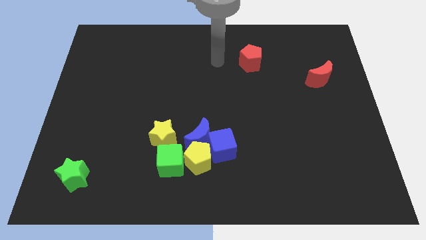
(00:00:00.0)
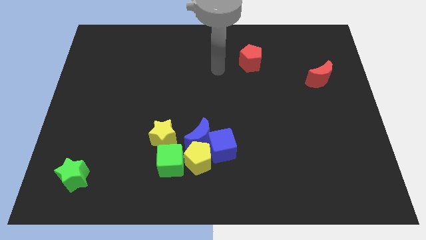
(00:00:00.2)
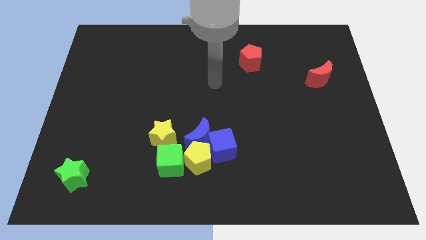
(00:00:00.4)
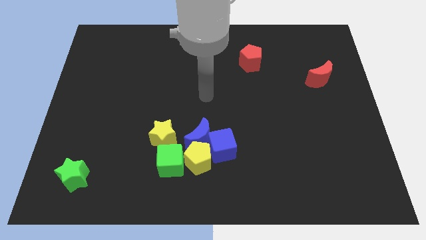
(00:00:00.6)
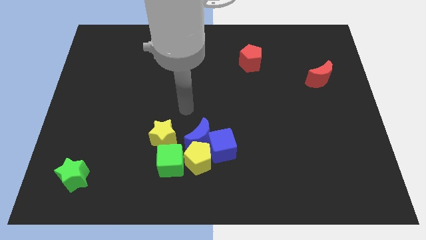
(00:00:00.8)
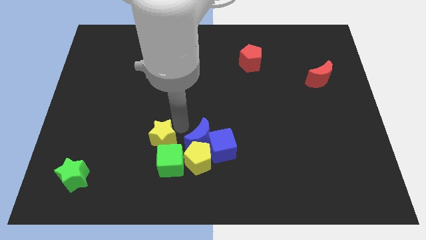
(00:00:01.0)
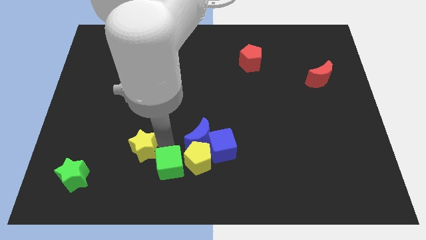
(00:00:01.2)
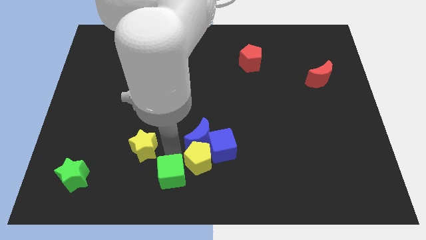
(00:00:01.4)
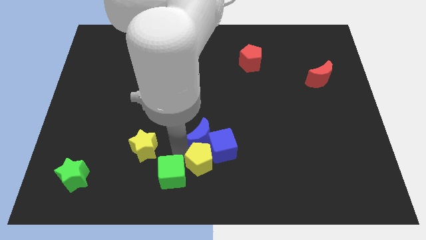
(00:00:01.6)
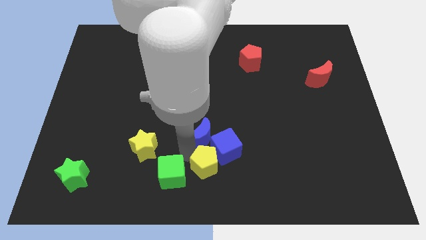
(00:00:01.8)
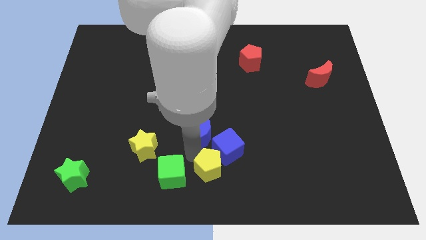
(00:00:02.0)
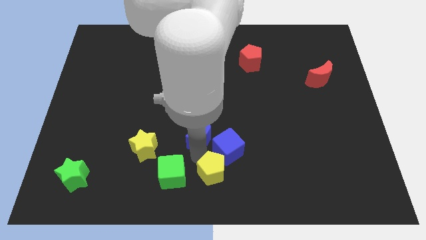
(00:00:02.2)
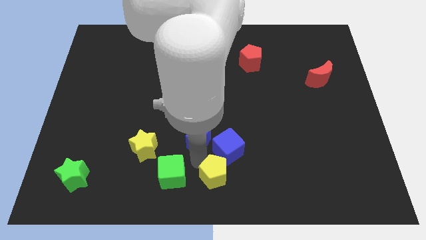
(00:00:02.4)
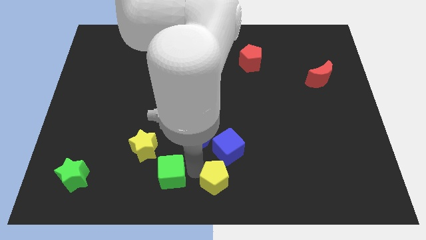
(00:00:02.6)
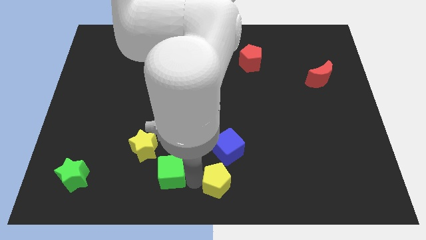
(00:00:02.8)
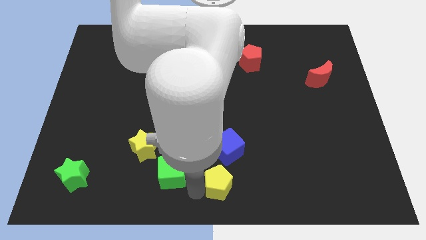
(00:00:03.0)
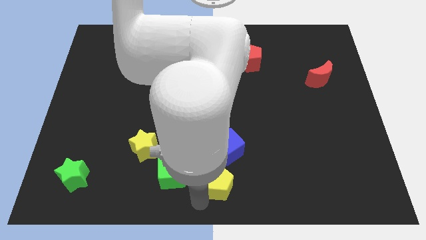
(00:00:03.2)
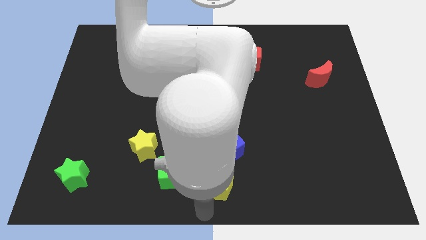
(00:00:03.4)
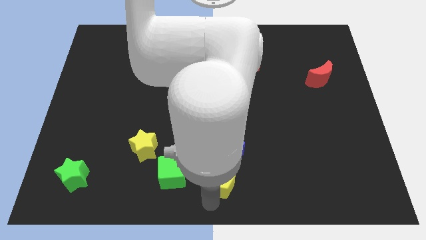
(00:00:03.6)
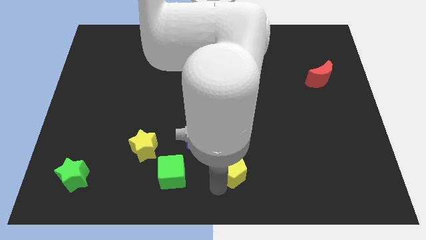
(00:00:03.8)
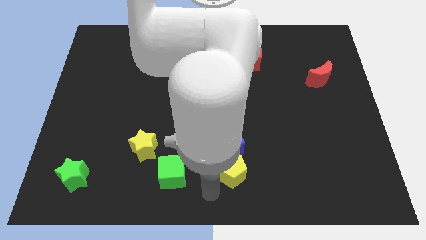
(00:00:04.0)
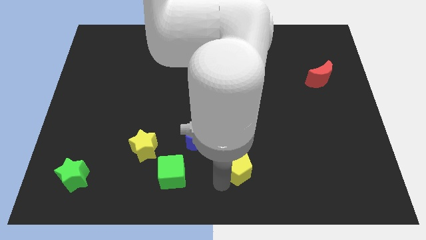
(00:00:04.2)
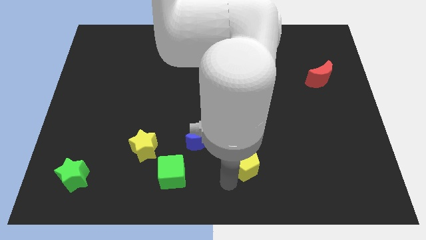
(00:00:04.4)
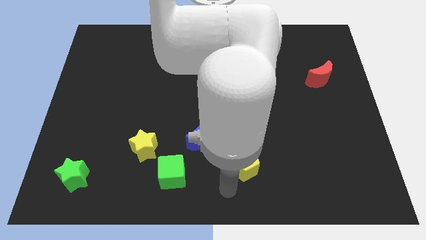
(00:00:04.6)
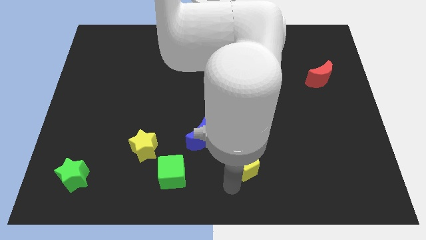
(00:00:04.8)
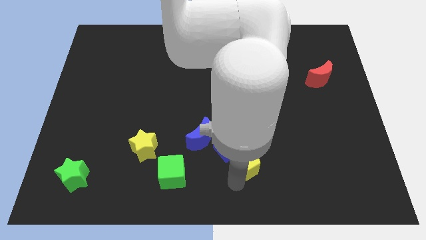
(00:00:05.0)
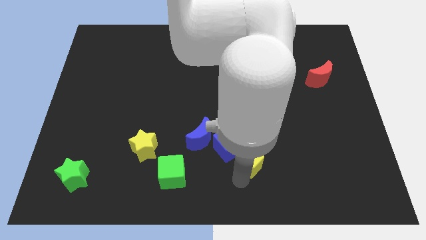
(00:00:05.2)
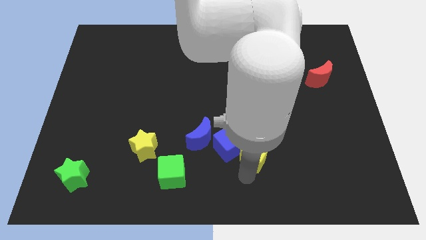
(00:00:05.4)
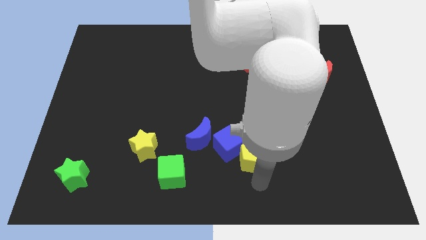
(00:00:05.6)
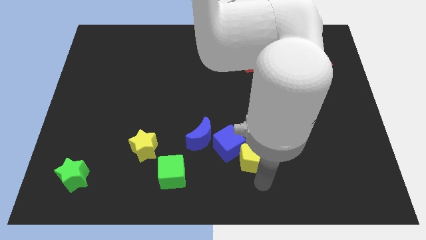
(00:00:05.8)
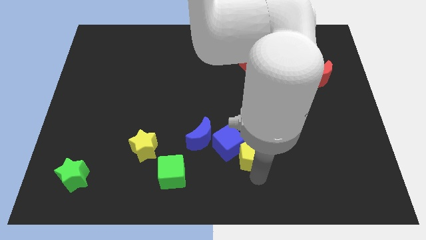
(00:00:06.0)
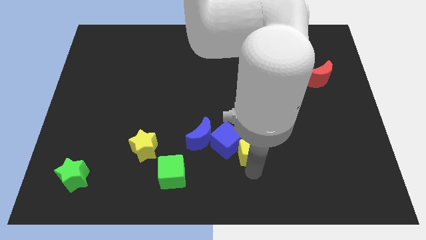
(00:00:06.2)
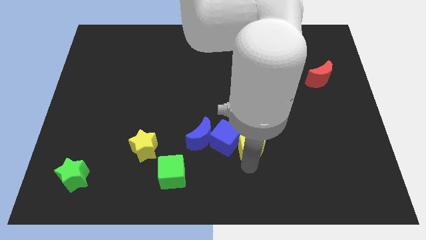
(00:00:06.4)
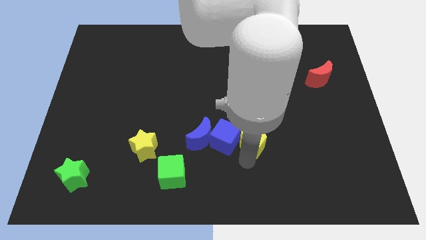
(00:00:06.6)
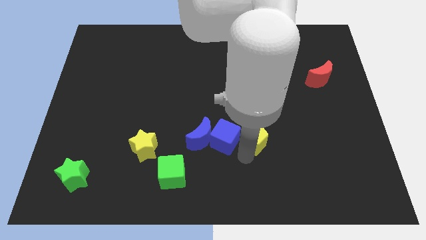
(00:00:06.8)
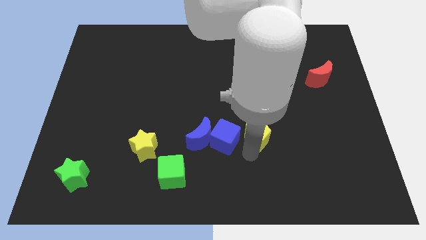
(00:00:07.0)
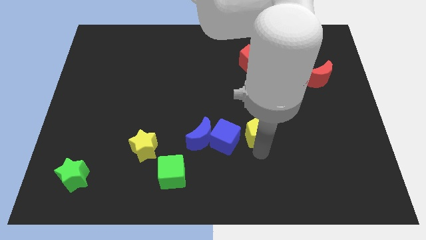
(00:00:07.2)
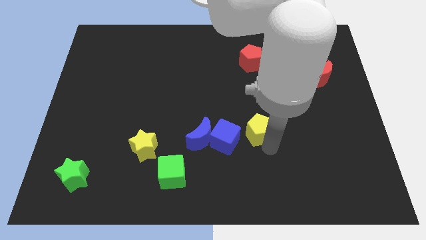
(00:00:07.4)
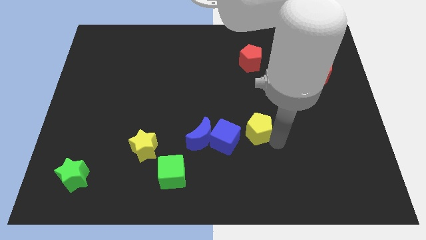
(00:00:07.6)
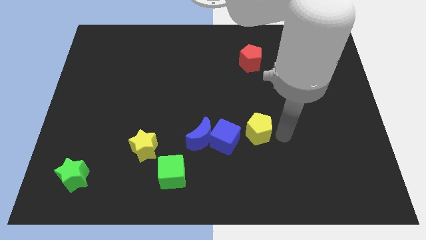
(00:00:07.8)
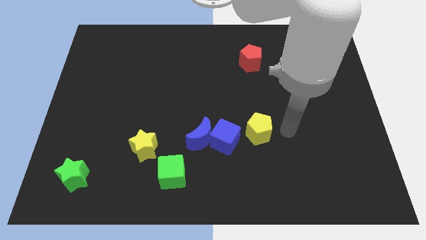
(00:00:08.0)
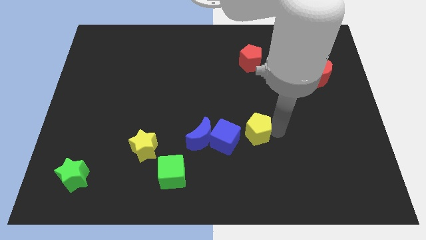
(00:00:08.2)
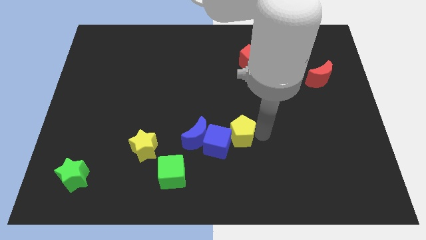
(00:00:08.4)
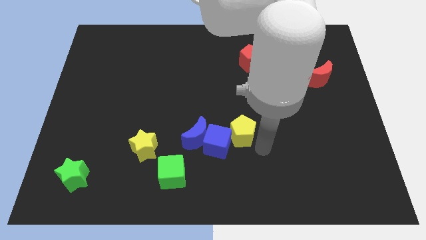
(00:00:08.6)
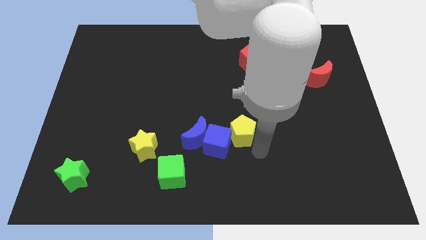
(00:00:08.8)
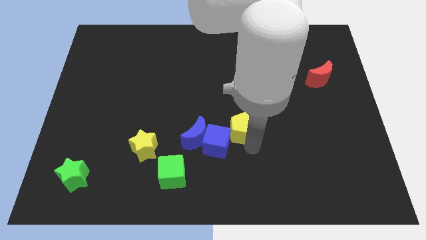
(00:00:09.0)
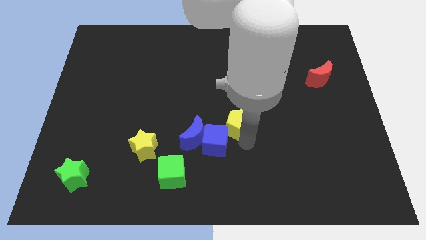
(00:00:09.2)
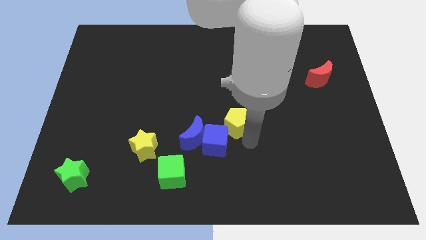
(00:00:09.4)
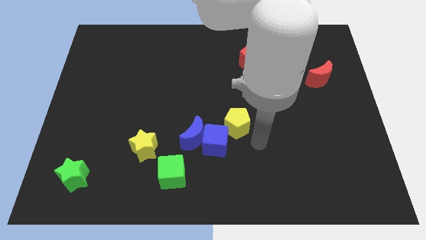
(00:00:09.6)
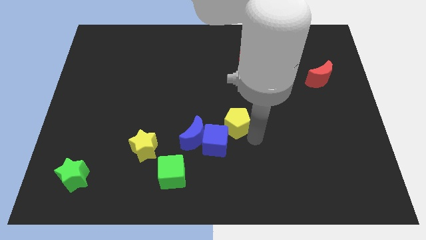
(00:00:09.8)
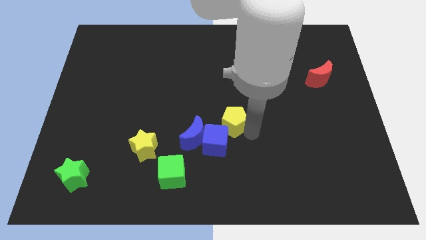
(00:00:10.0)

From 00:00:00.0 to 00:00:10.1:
slightly move the yellow pentagon up

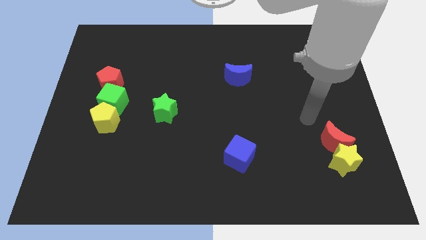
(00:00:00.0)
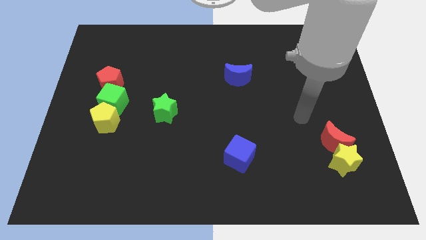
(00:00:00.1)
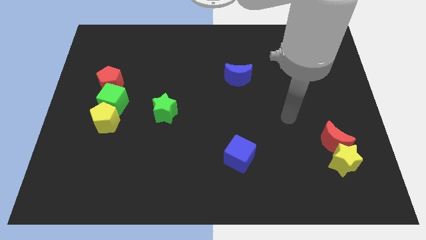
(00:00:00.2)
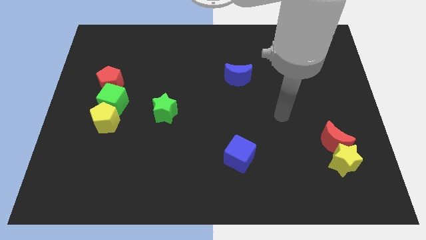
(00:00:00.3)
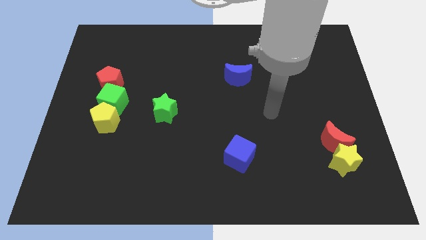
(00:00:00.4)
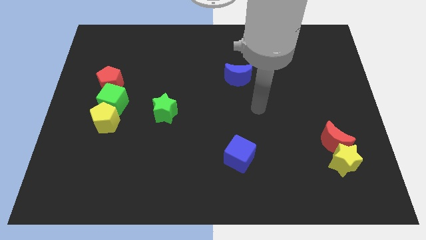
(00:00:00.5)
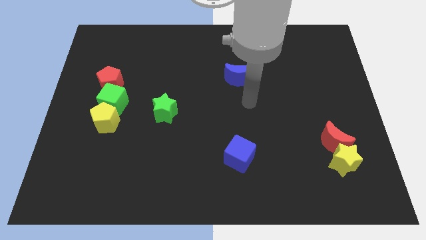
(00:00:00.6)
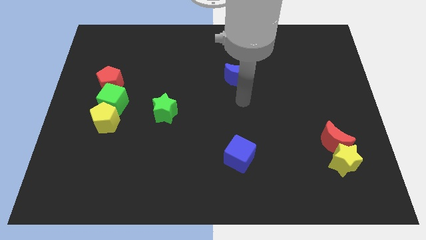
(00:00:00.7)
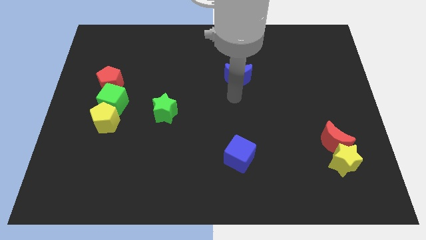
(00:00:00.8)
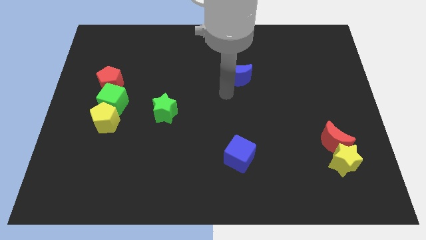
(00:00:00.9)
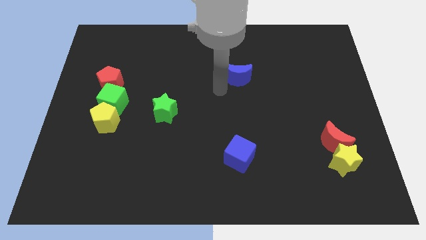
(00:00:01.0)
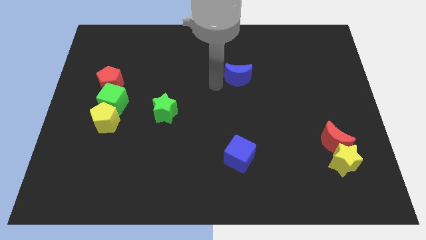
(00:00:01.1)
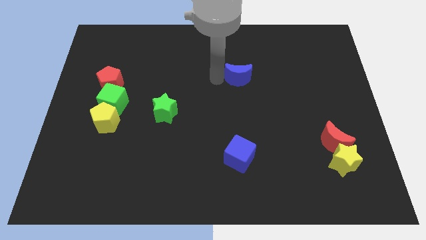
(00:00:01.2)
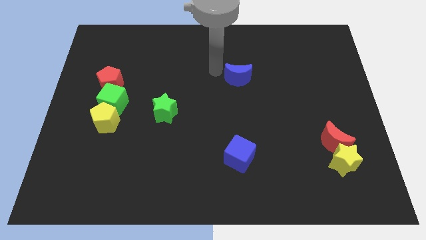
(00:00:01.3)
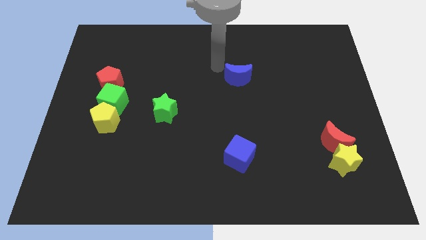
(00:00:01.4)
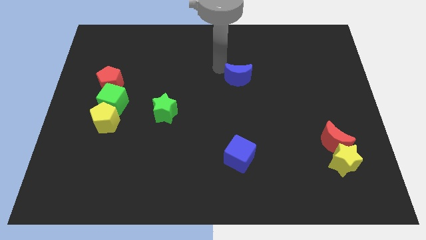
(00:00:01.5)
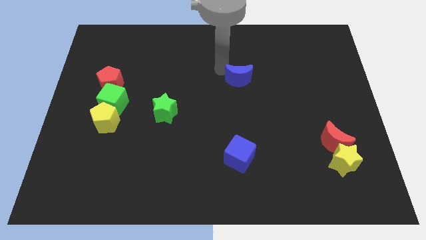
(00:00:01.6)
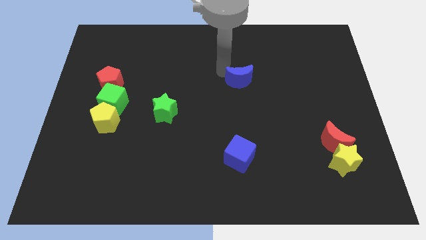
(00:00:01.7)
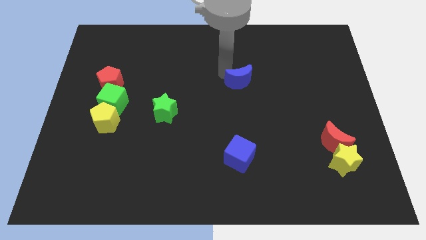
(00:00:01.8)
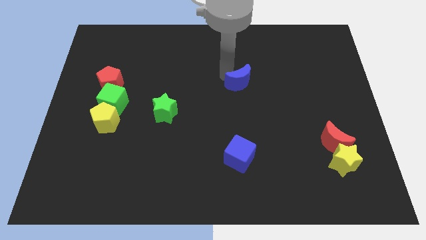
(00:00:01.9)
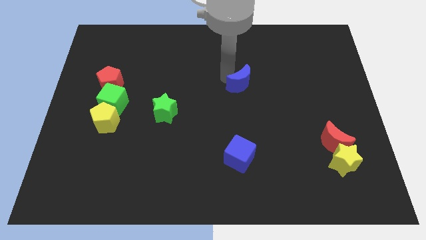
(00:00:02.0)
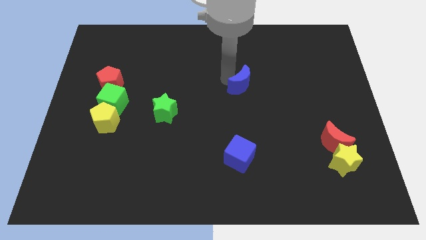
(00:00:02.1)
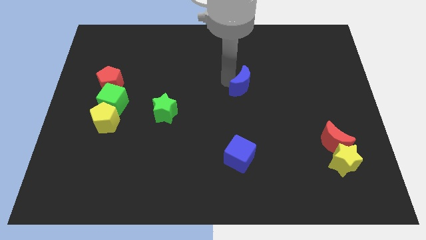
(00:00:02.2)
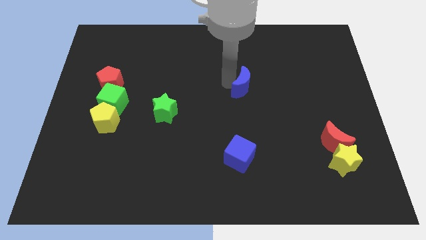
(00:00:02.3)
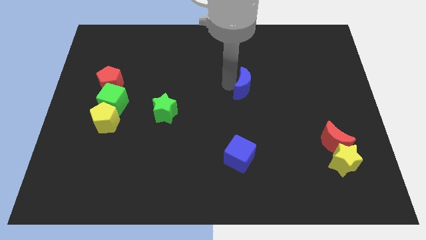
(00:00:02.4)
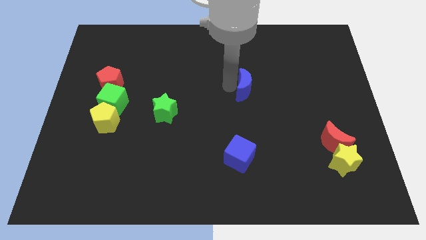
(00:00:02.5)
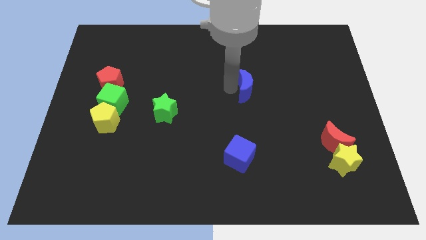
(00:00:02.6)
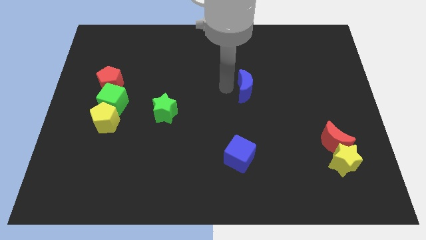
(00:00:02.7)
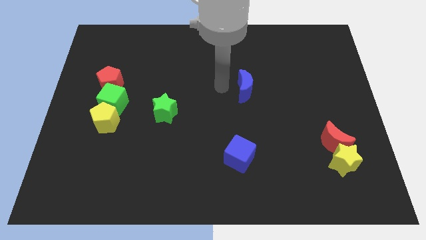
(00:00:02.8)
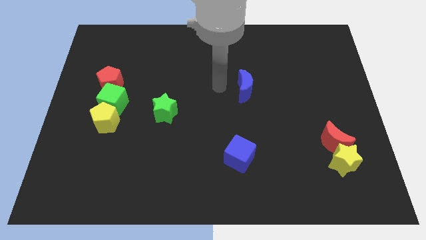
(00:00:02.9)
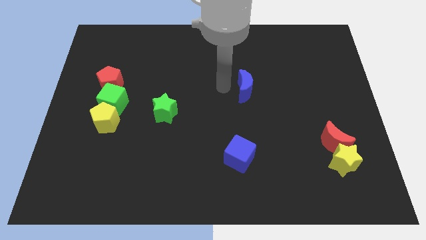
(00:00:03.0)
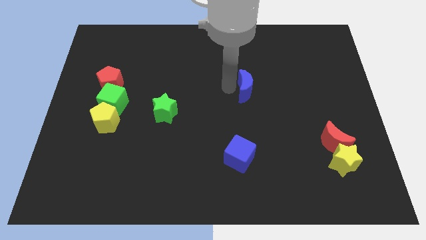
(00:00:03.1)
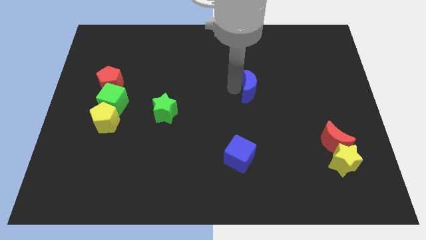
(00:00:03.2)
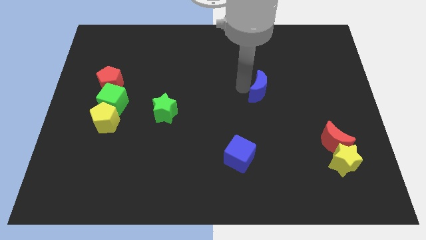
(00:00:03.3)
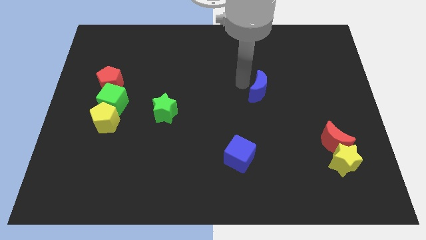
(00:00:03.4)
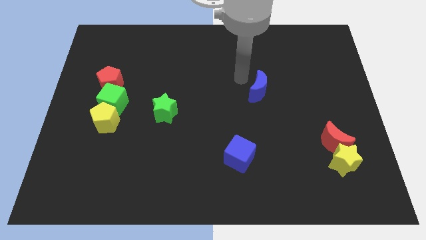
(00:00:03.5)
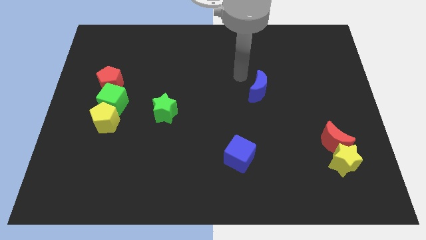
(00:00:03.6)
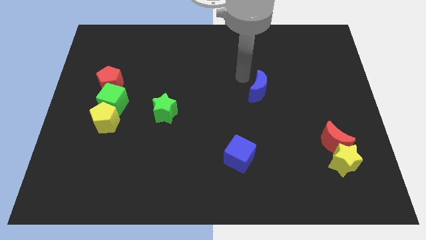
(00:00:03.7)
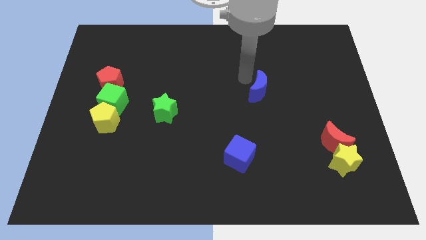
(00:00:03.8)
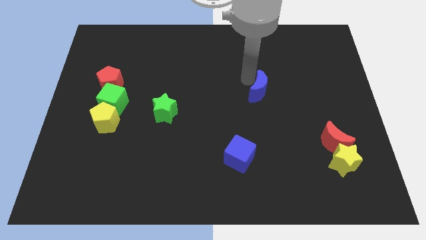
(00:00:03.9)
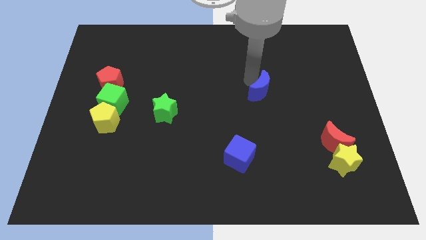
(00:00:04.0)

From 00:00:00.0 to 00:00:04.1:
move the blue moon down and then right a little
